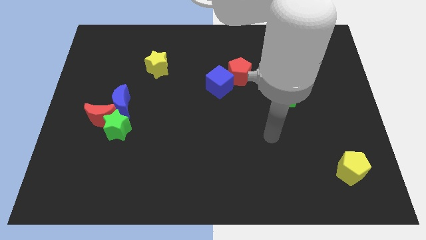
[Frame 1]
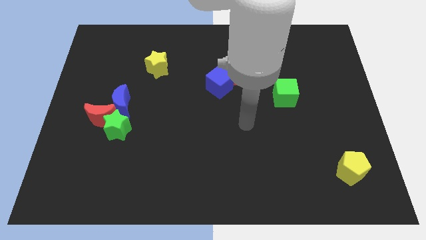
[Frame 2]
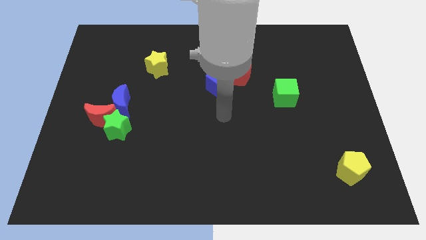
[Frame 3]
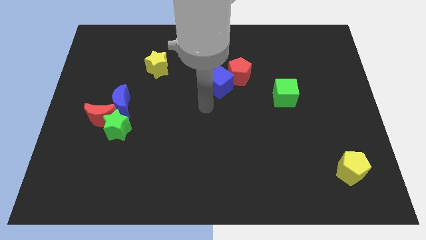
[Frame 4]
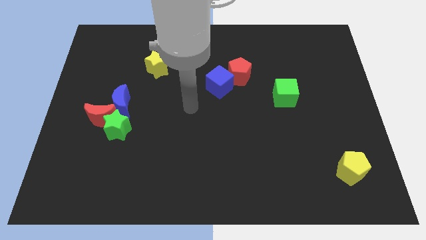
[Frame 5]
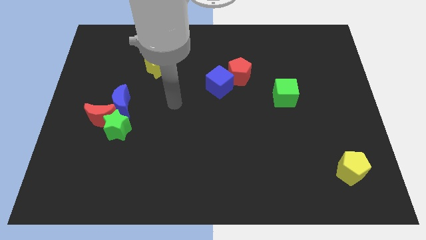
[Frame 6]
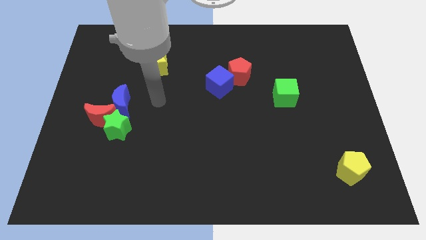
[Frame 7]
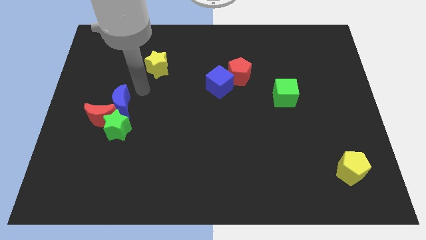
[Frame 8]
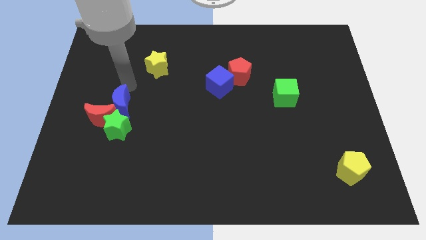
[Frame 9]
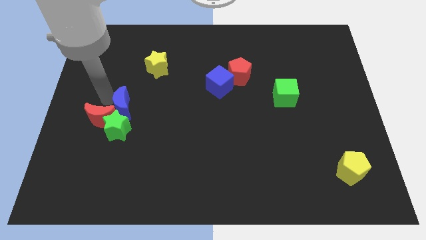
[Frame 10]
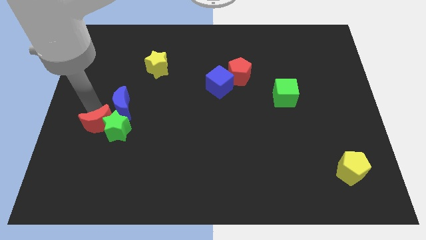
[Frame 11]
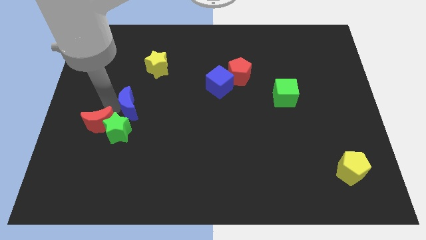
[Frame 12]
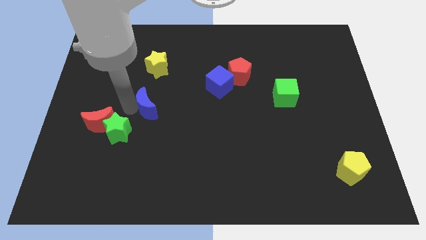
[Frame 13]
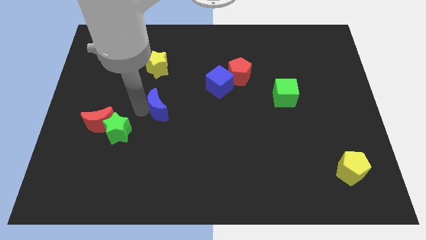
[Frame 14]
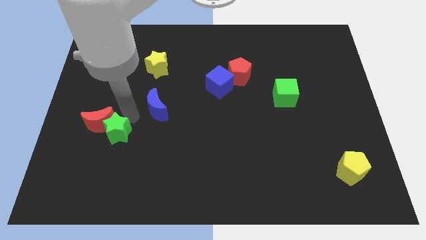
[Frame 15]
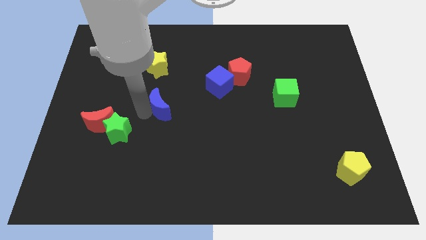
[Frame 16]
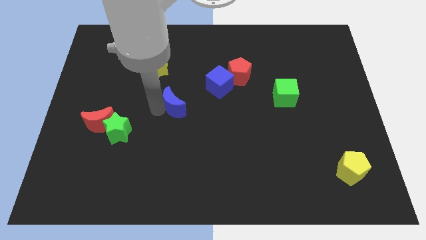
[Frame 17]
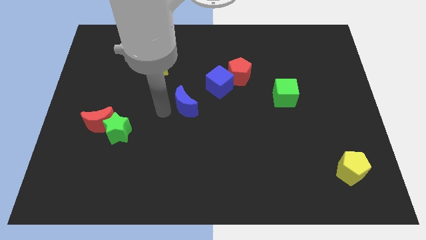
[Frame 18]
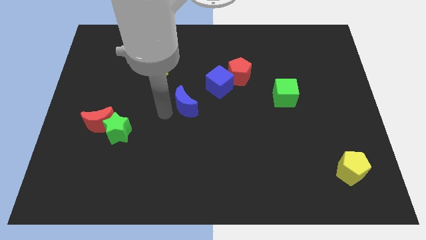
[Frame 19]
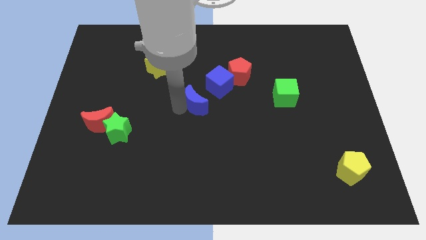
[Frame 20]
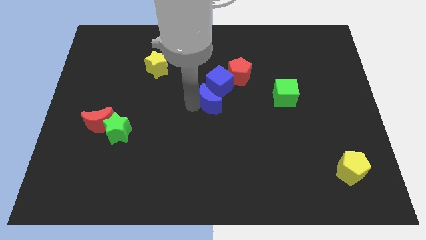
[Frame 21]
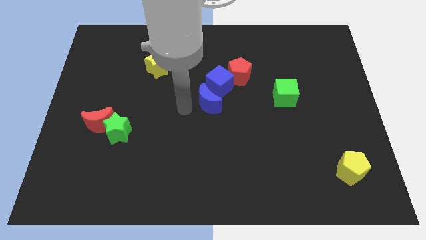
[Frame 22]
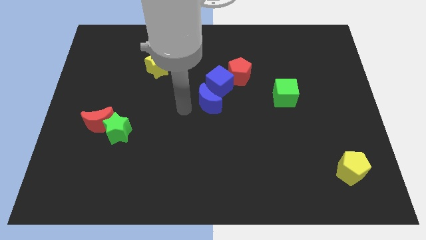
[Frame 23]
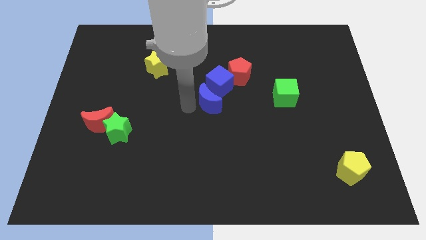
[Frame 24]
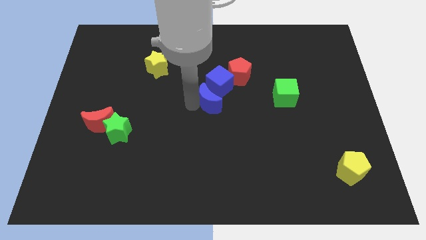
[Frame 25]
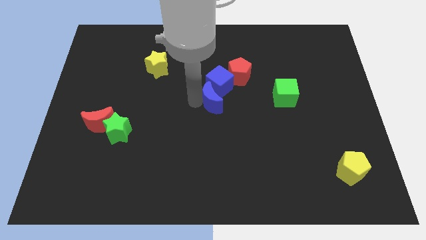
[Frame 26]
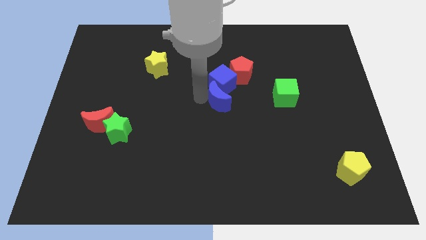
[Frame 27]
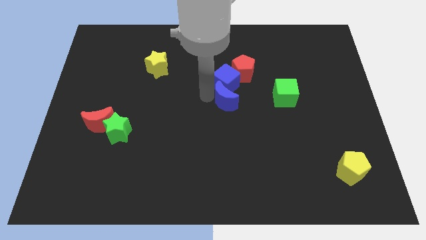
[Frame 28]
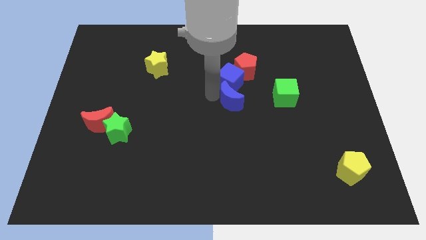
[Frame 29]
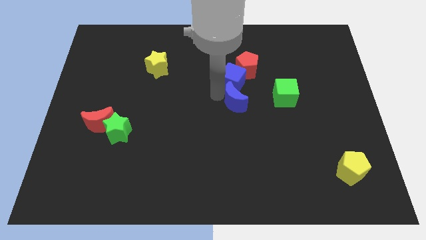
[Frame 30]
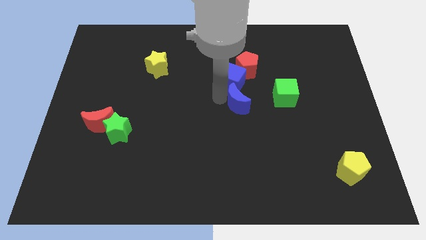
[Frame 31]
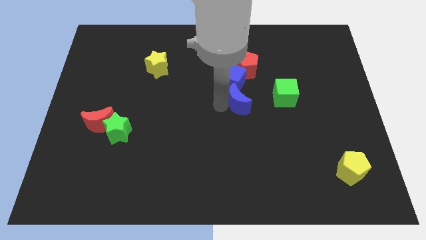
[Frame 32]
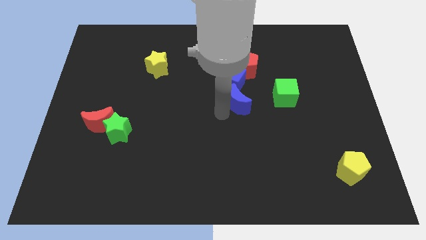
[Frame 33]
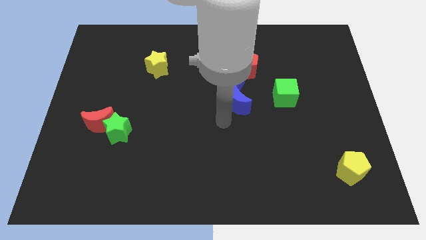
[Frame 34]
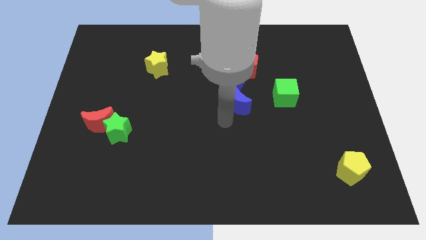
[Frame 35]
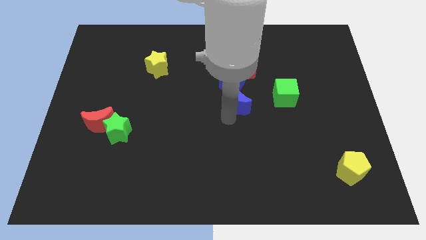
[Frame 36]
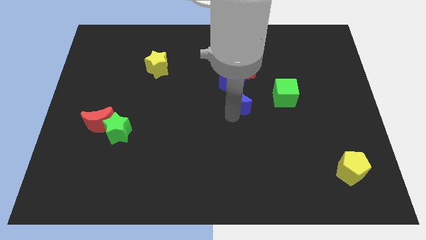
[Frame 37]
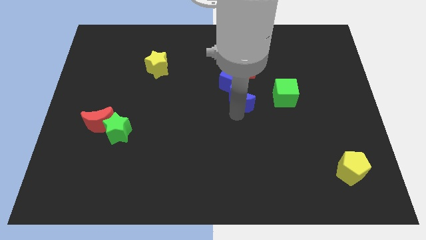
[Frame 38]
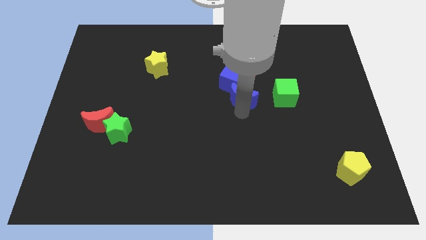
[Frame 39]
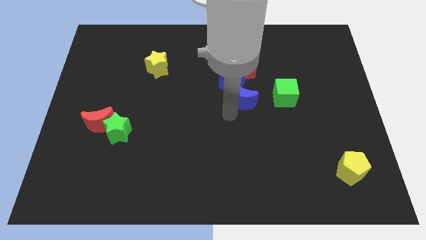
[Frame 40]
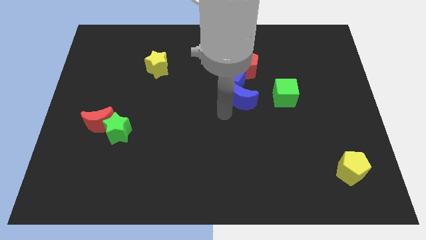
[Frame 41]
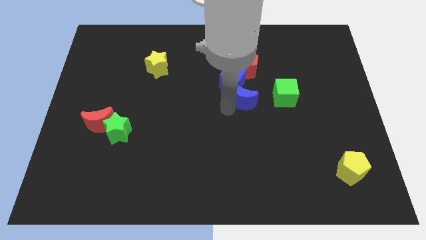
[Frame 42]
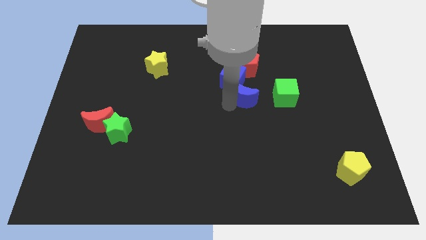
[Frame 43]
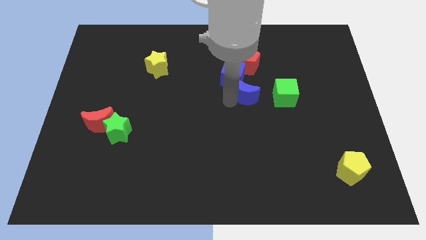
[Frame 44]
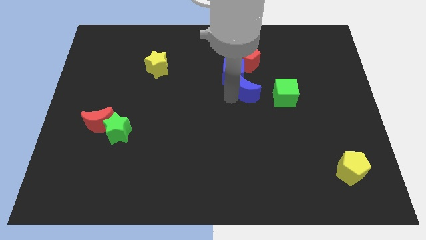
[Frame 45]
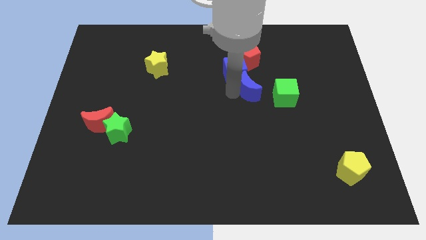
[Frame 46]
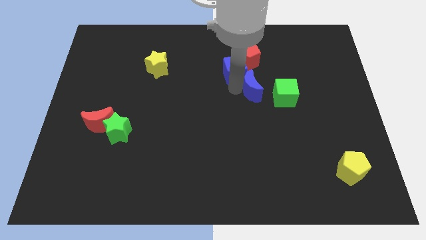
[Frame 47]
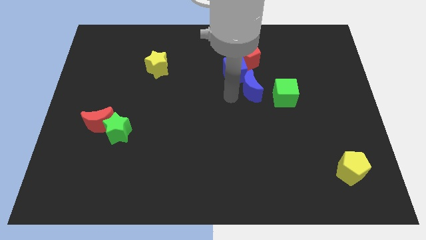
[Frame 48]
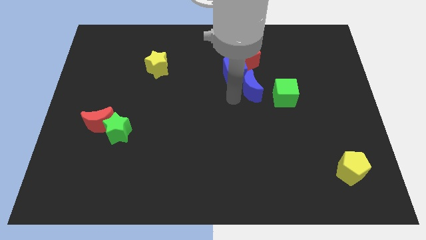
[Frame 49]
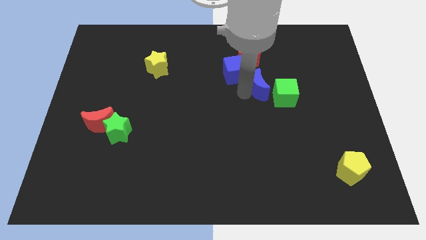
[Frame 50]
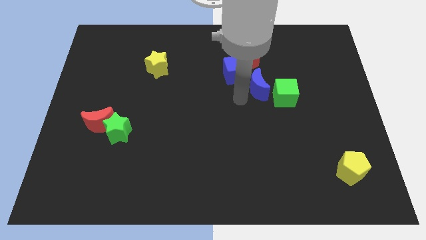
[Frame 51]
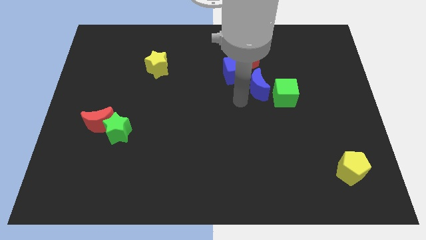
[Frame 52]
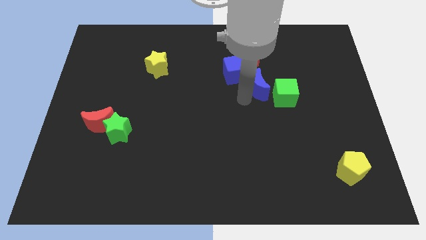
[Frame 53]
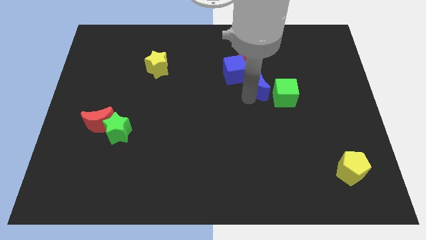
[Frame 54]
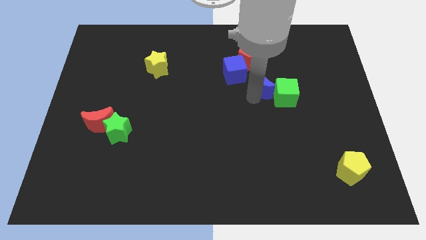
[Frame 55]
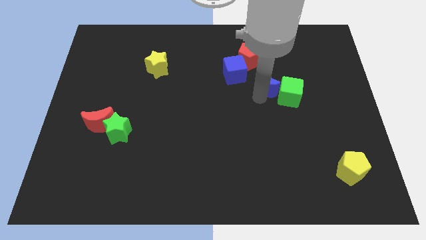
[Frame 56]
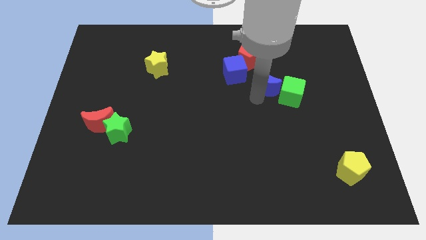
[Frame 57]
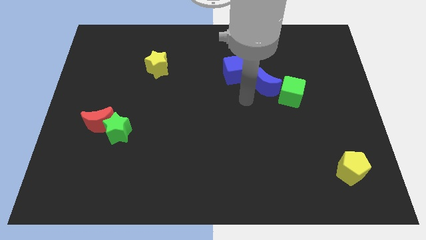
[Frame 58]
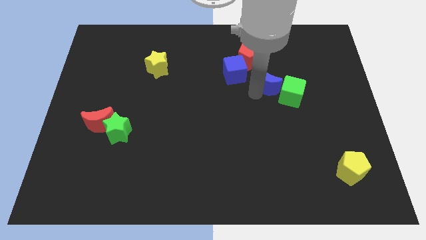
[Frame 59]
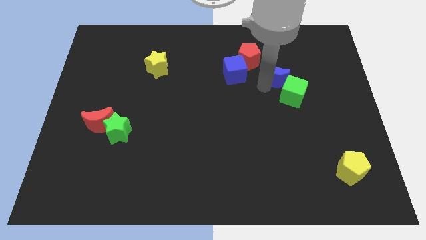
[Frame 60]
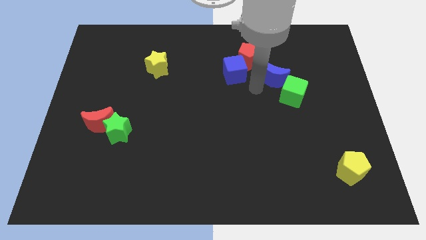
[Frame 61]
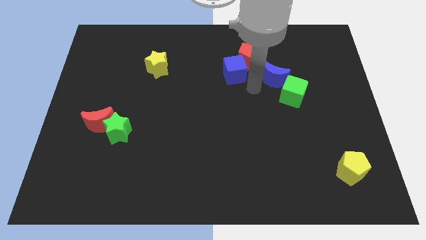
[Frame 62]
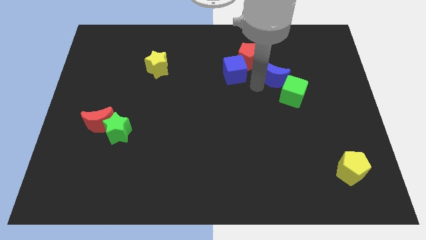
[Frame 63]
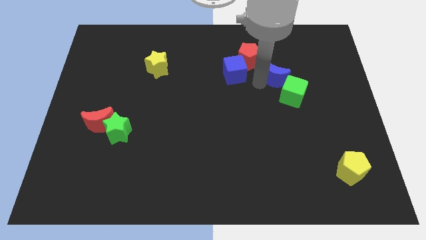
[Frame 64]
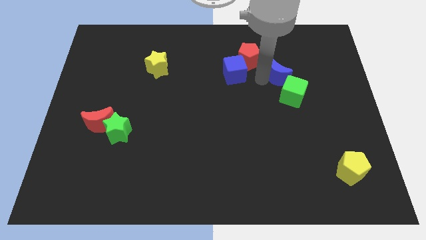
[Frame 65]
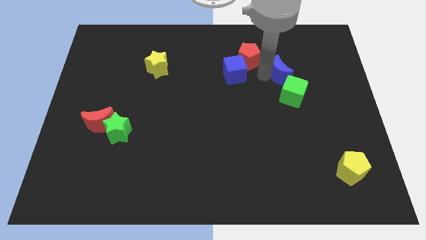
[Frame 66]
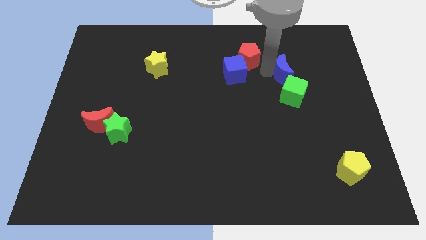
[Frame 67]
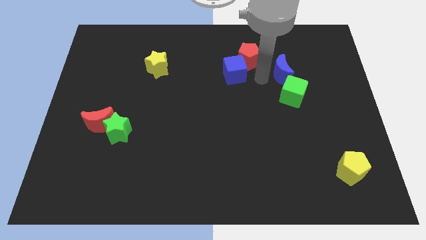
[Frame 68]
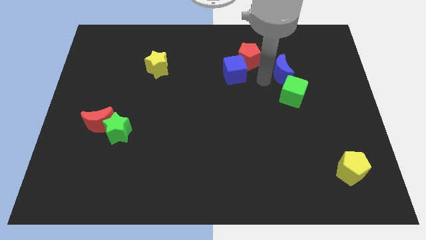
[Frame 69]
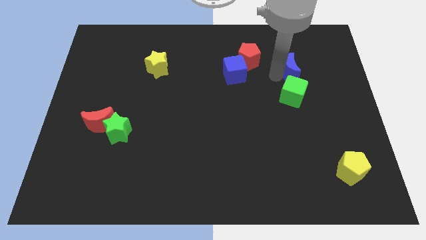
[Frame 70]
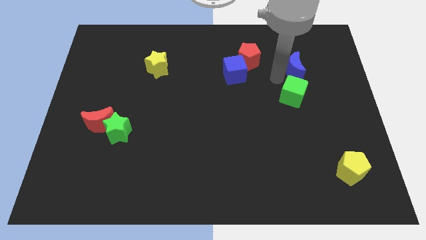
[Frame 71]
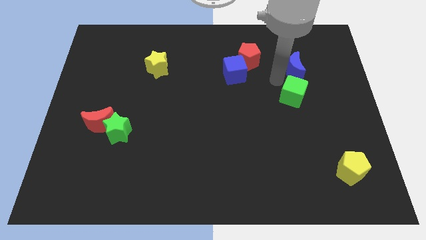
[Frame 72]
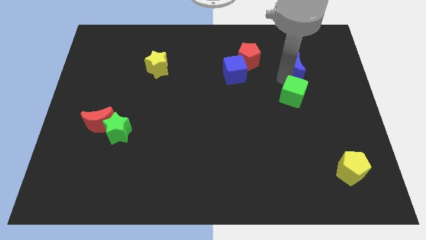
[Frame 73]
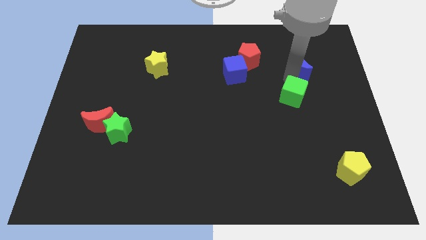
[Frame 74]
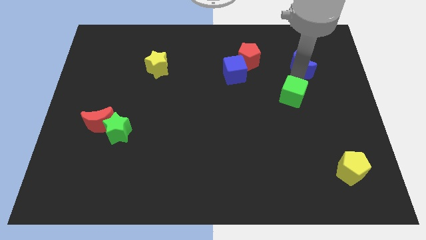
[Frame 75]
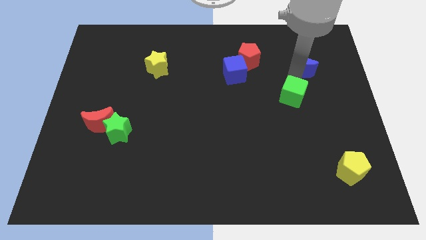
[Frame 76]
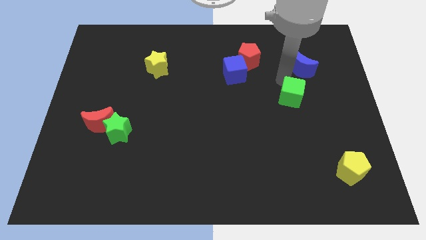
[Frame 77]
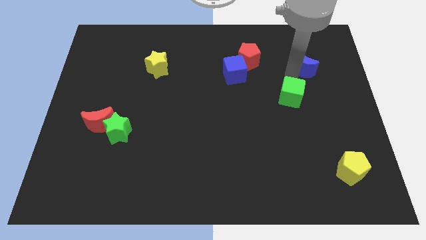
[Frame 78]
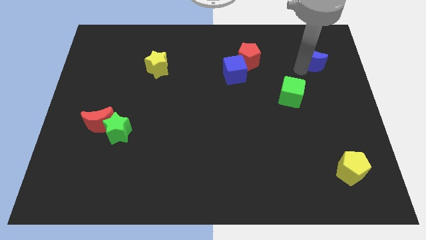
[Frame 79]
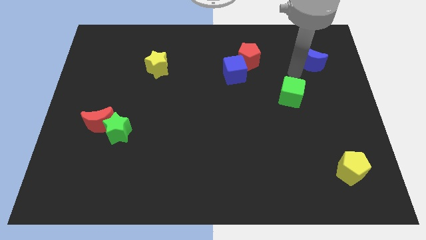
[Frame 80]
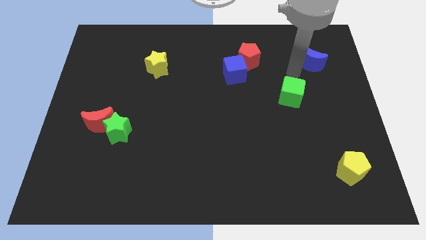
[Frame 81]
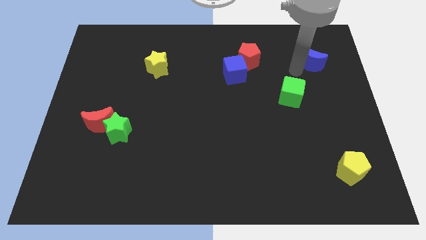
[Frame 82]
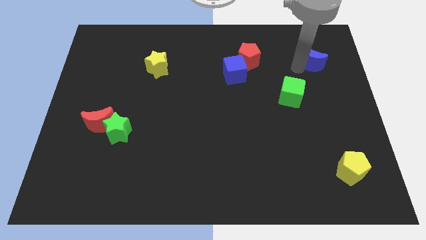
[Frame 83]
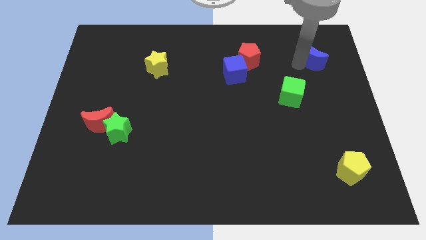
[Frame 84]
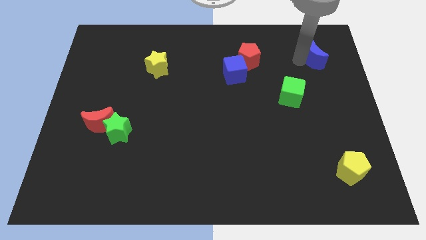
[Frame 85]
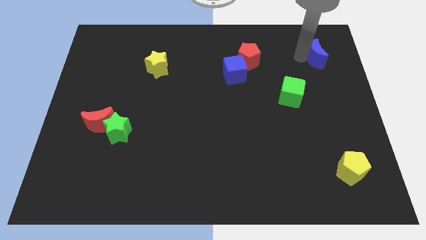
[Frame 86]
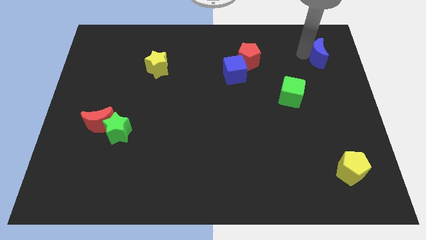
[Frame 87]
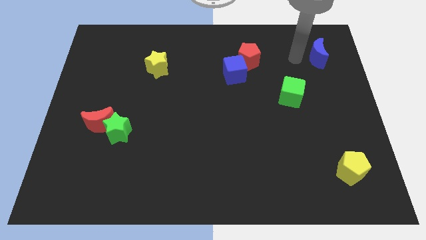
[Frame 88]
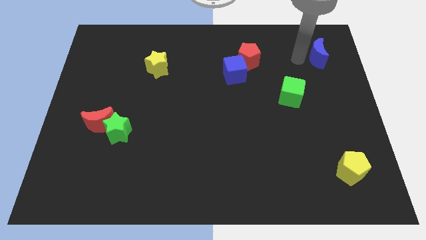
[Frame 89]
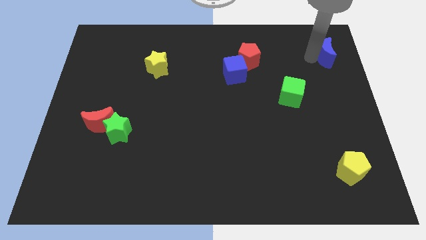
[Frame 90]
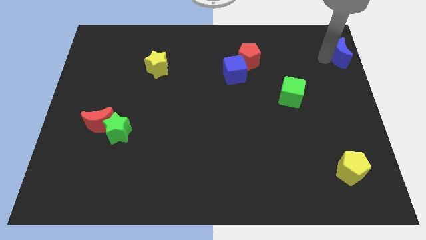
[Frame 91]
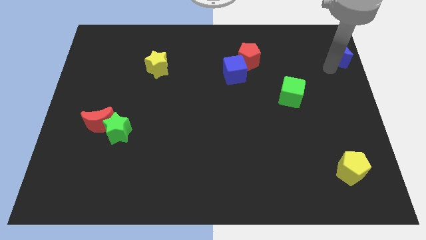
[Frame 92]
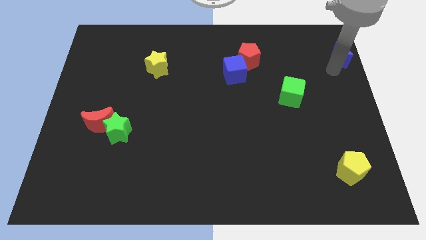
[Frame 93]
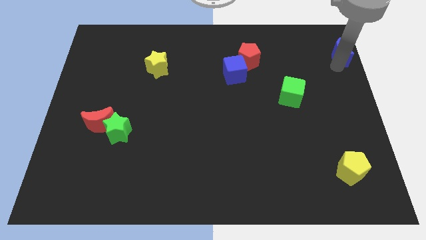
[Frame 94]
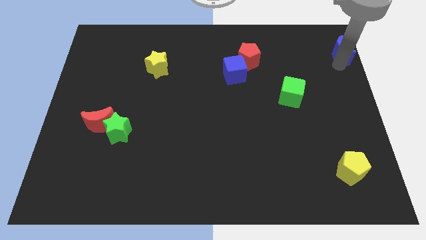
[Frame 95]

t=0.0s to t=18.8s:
put the blue moon to the top right of the board
